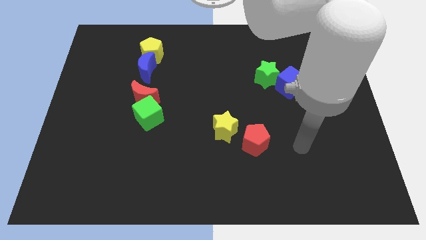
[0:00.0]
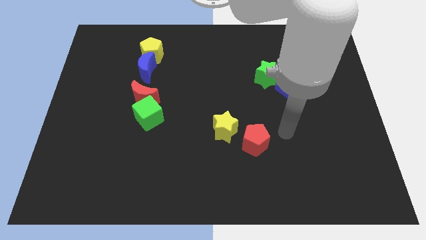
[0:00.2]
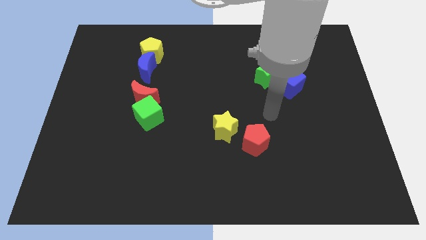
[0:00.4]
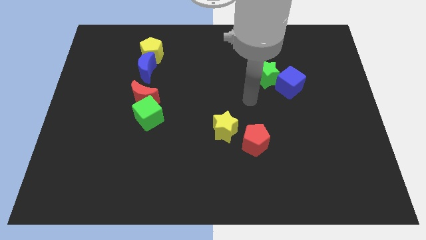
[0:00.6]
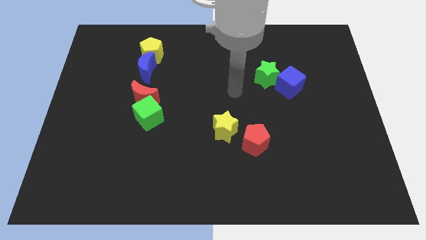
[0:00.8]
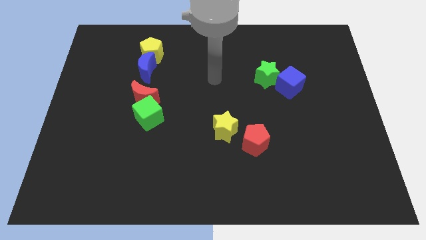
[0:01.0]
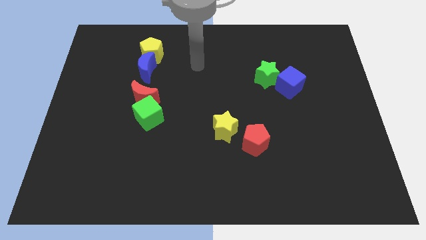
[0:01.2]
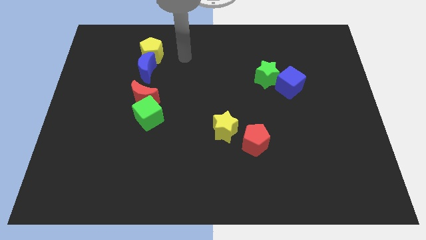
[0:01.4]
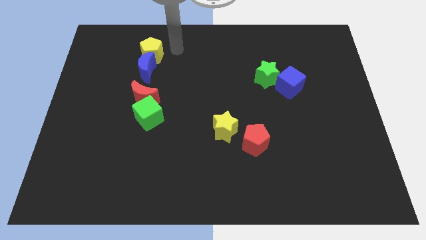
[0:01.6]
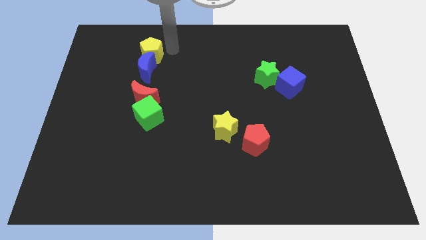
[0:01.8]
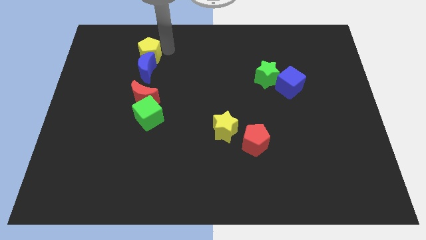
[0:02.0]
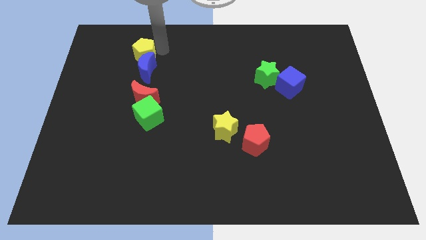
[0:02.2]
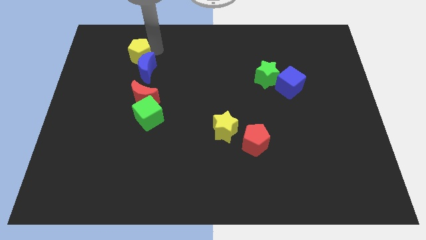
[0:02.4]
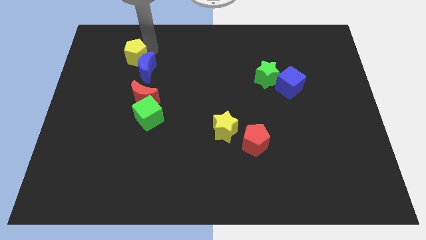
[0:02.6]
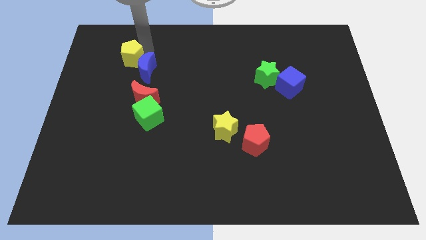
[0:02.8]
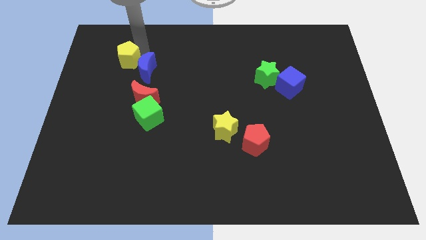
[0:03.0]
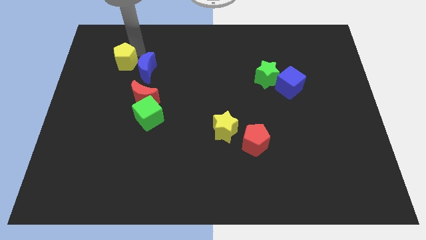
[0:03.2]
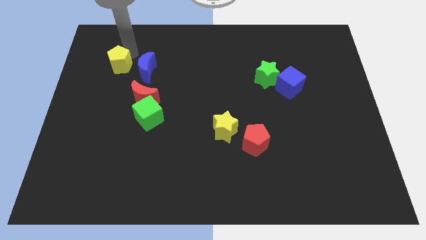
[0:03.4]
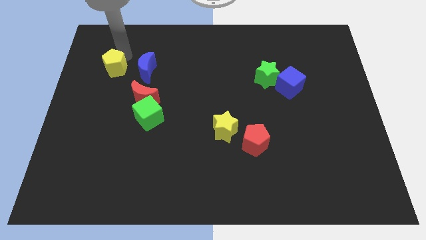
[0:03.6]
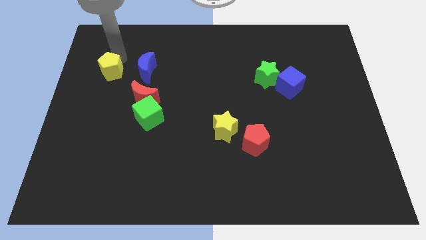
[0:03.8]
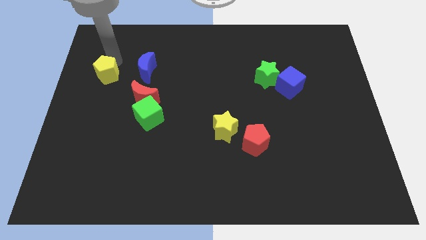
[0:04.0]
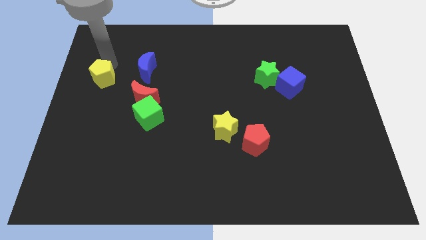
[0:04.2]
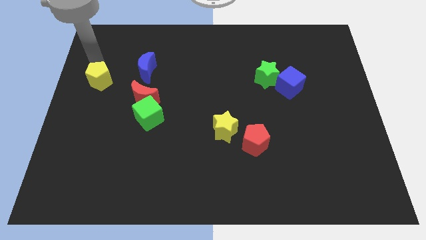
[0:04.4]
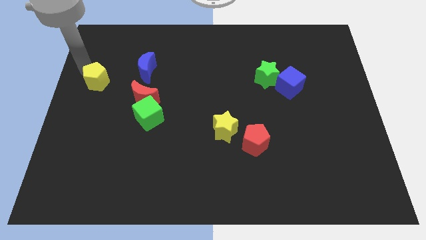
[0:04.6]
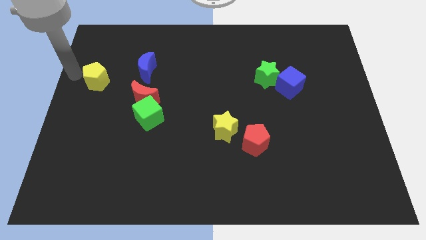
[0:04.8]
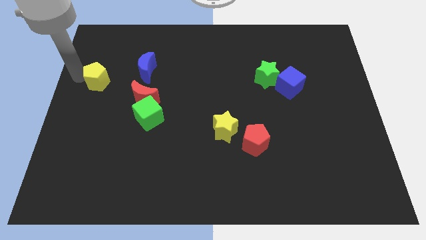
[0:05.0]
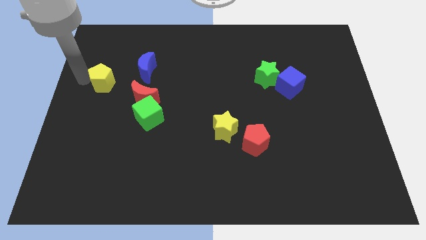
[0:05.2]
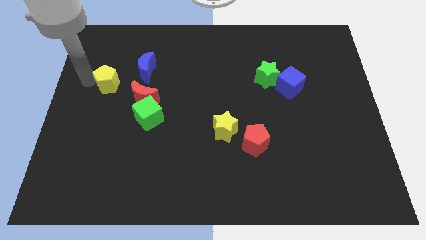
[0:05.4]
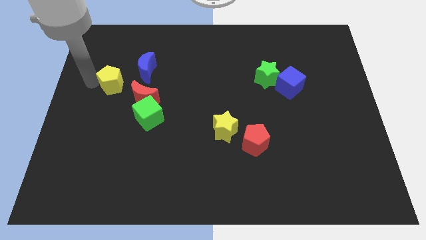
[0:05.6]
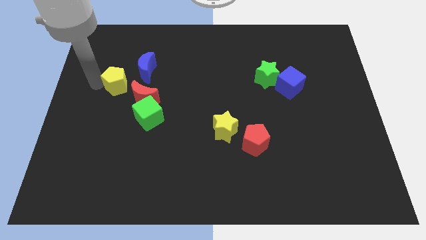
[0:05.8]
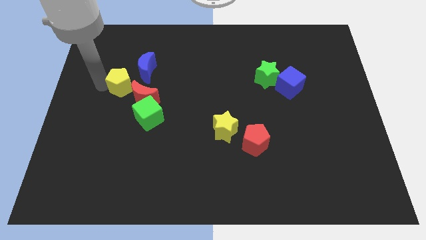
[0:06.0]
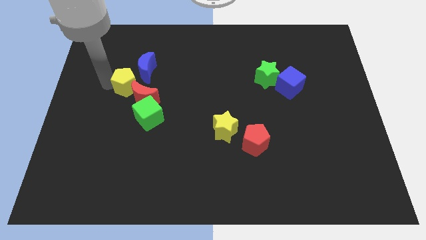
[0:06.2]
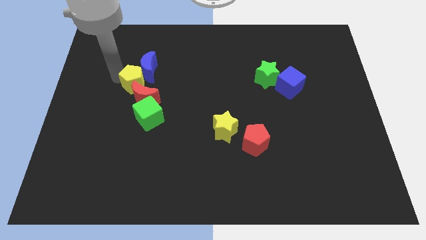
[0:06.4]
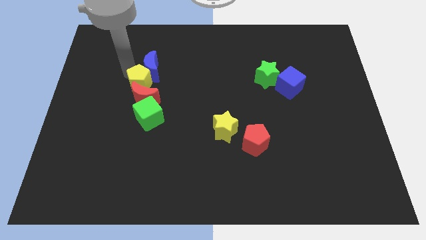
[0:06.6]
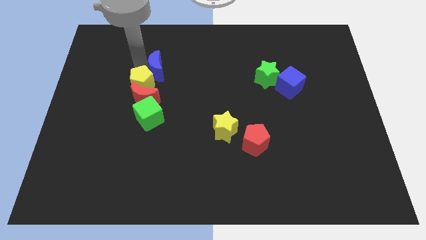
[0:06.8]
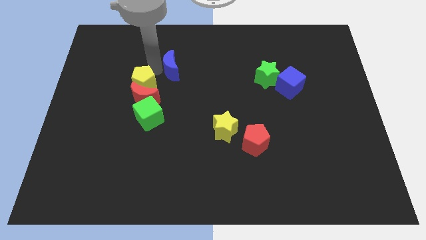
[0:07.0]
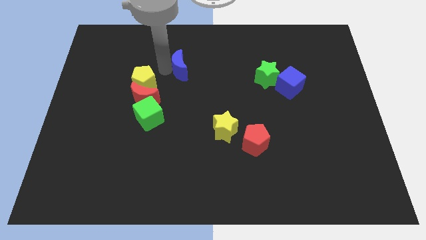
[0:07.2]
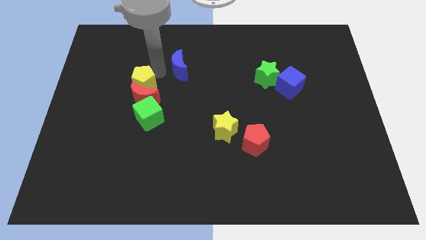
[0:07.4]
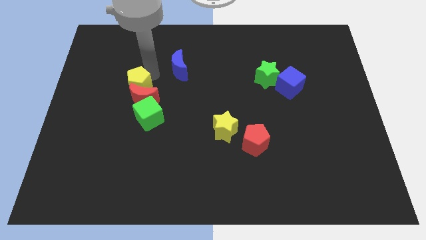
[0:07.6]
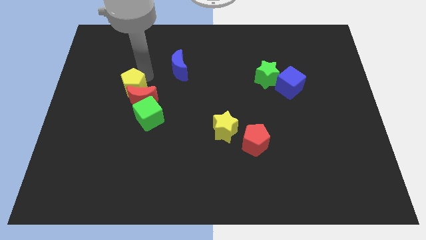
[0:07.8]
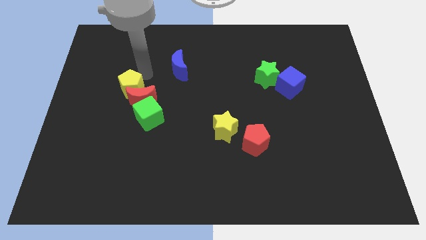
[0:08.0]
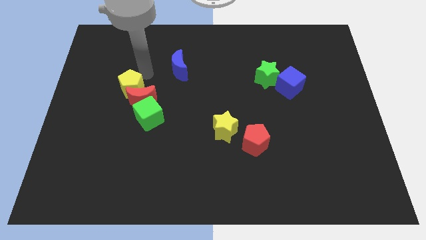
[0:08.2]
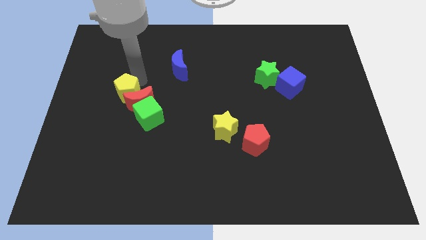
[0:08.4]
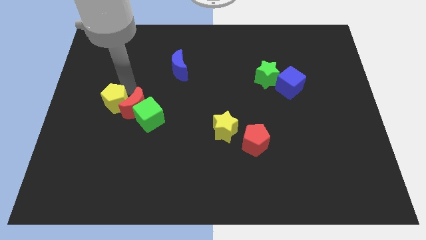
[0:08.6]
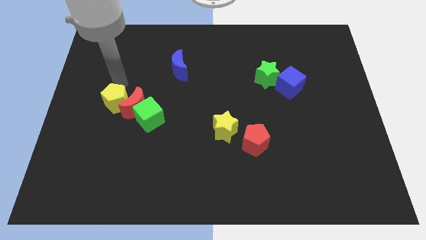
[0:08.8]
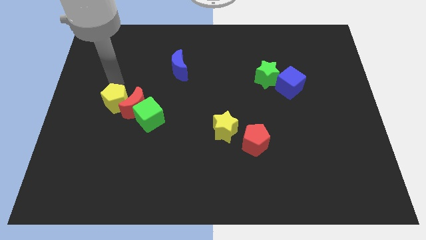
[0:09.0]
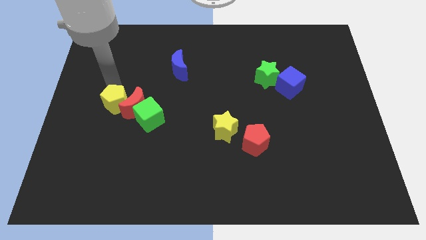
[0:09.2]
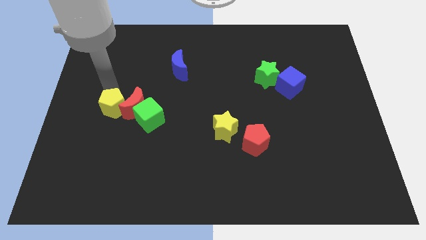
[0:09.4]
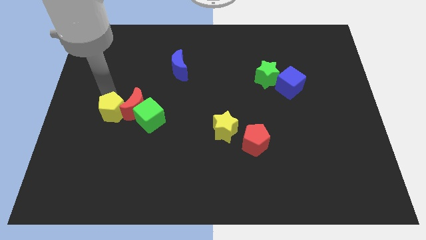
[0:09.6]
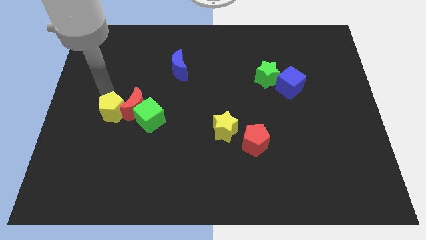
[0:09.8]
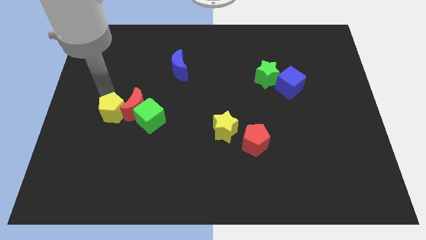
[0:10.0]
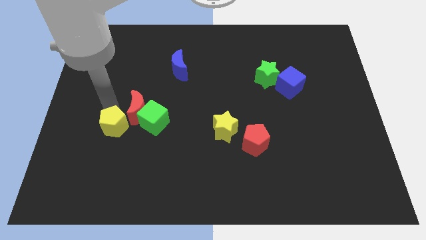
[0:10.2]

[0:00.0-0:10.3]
slide the yellow pentagon downwards

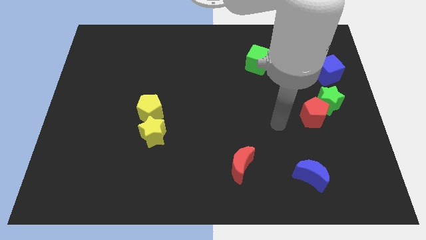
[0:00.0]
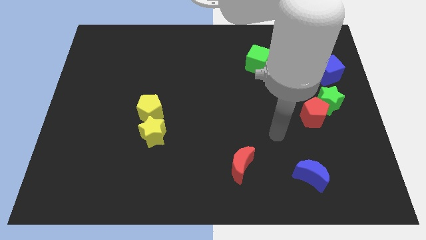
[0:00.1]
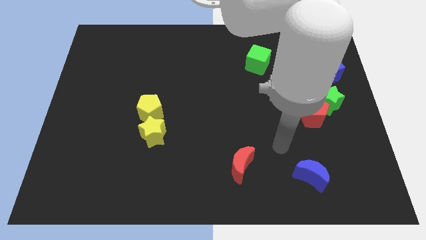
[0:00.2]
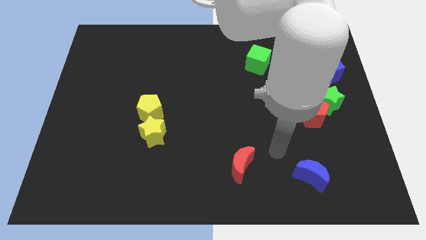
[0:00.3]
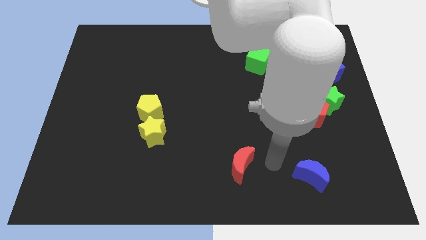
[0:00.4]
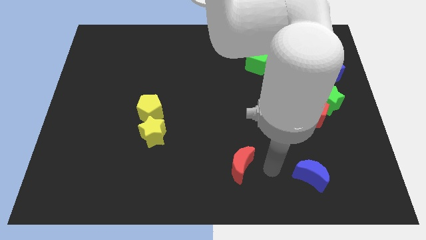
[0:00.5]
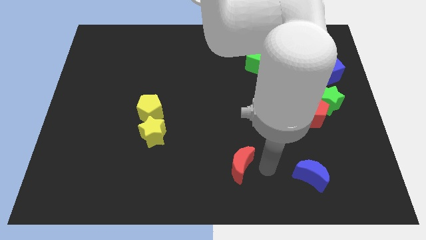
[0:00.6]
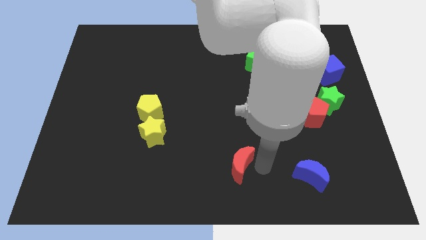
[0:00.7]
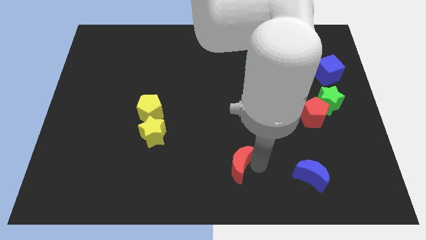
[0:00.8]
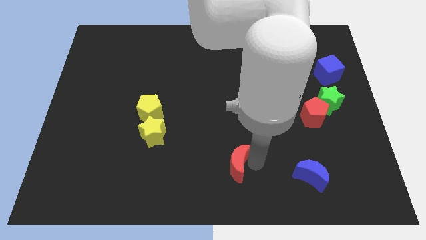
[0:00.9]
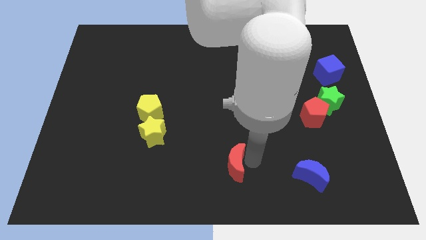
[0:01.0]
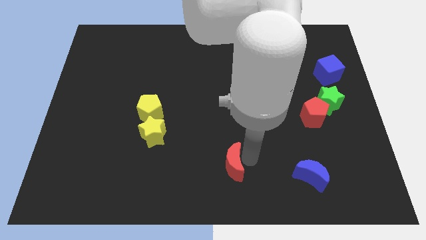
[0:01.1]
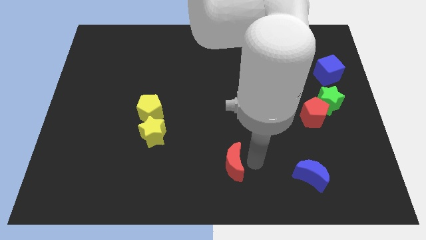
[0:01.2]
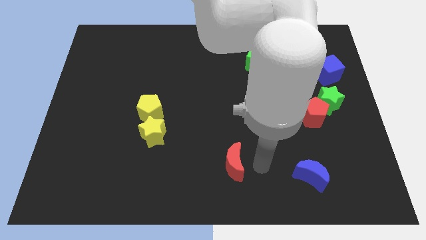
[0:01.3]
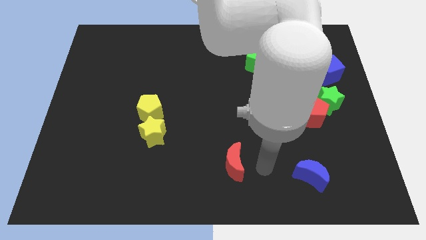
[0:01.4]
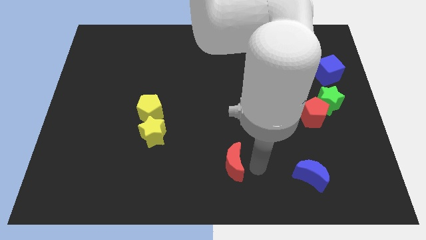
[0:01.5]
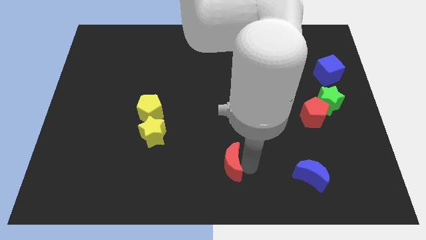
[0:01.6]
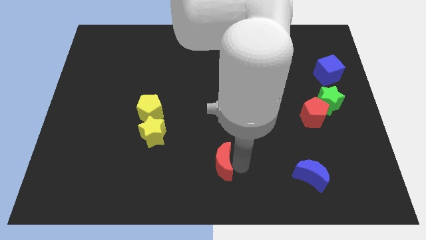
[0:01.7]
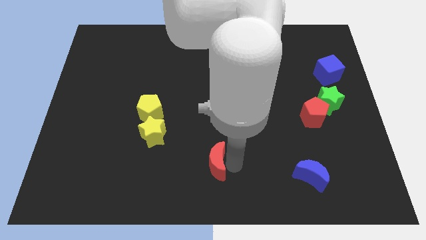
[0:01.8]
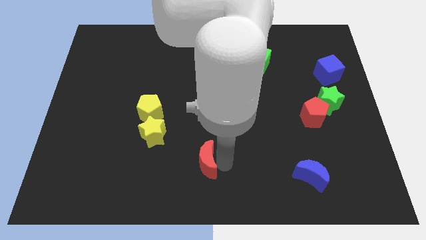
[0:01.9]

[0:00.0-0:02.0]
push the red moon left a little bit

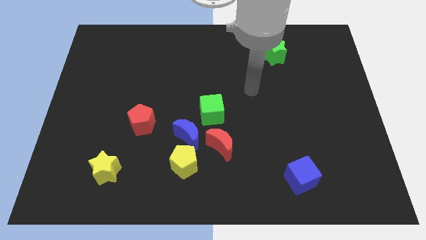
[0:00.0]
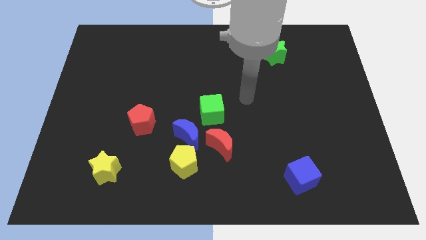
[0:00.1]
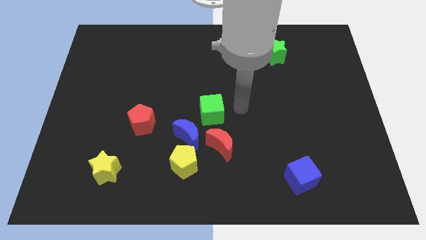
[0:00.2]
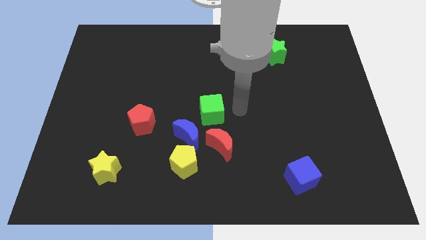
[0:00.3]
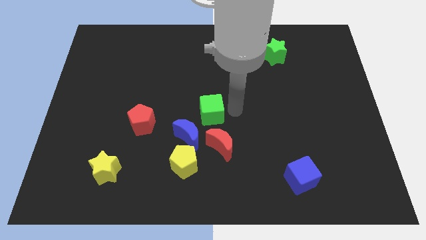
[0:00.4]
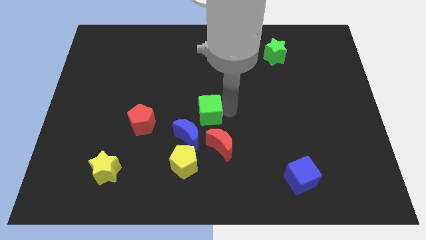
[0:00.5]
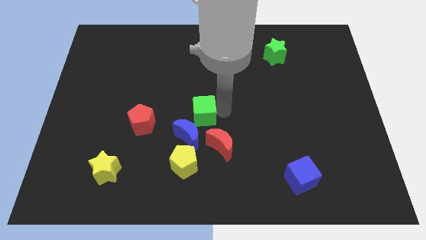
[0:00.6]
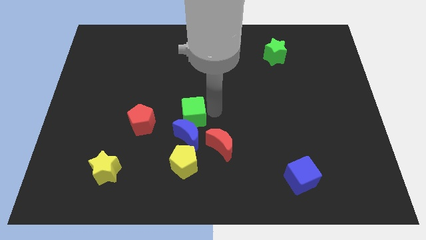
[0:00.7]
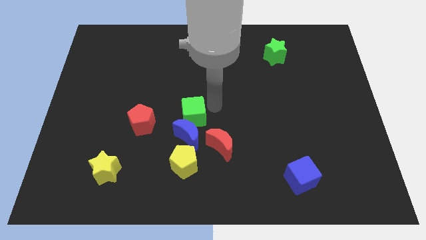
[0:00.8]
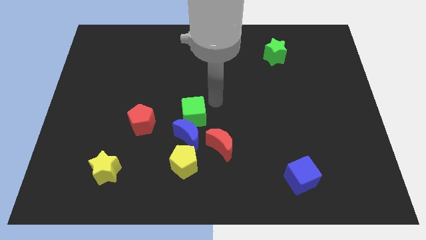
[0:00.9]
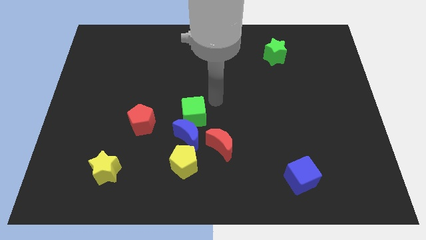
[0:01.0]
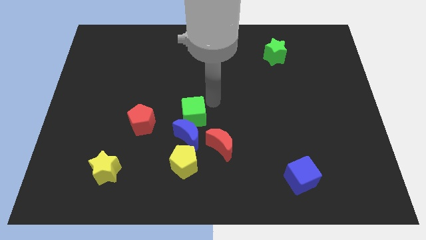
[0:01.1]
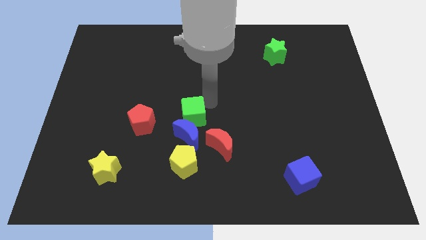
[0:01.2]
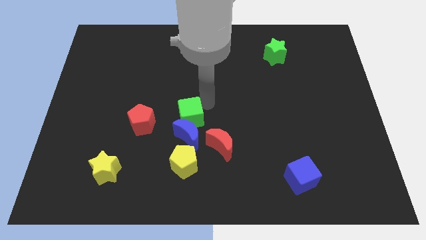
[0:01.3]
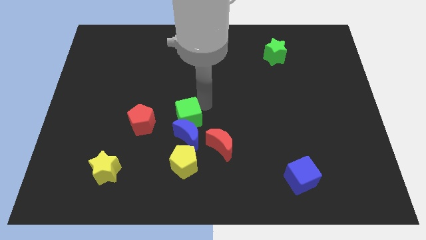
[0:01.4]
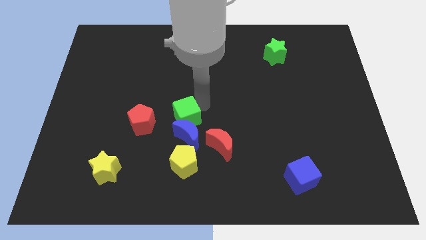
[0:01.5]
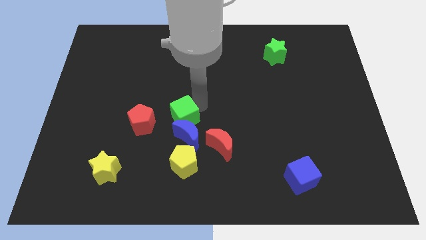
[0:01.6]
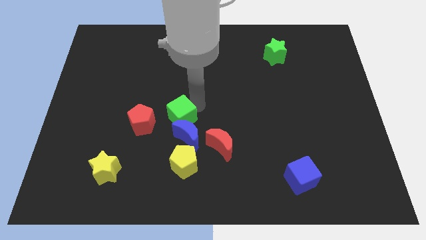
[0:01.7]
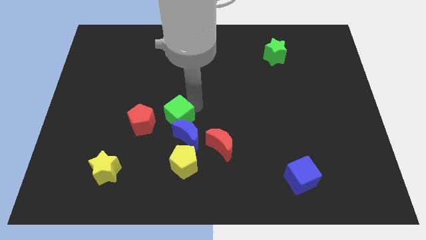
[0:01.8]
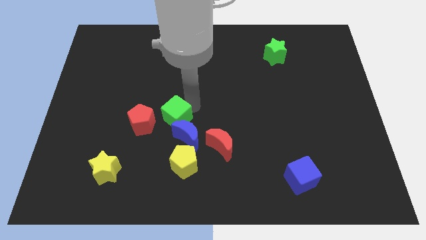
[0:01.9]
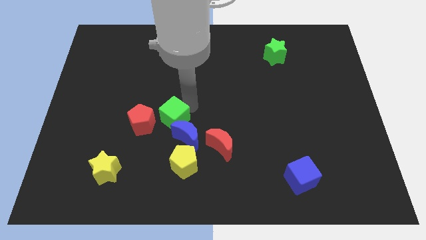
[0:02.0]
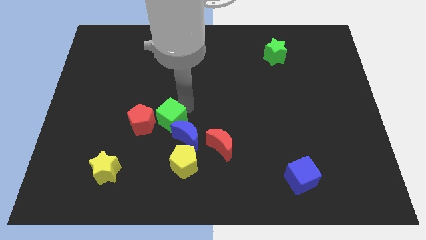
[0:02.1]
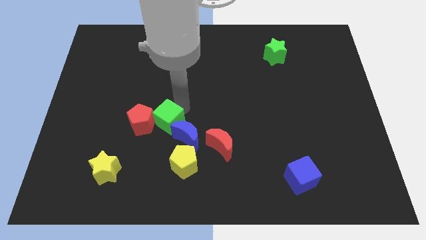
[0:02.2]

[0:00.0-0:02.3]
push the green cube a little down and to the left diagonally
